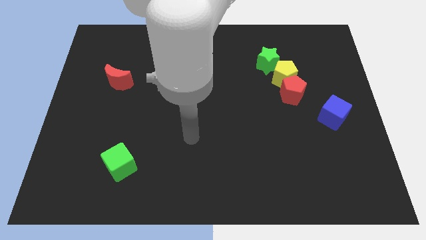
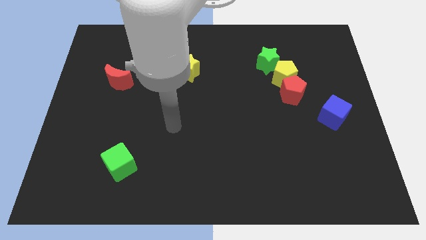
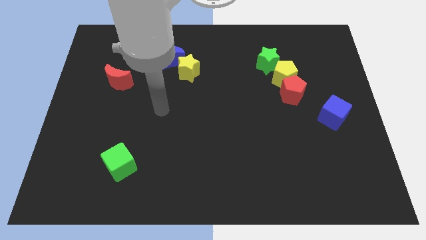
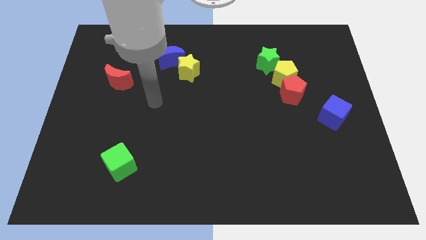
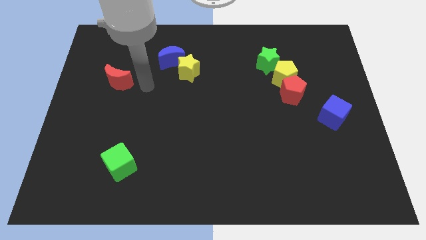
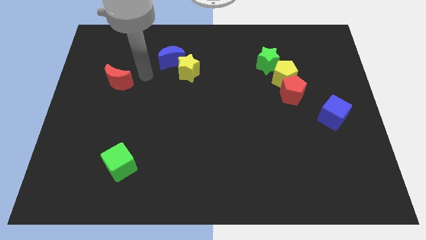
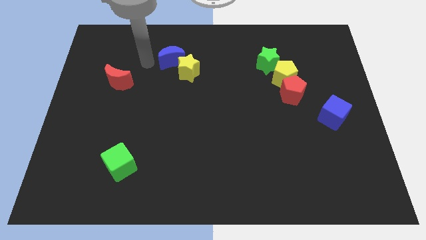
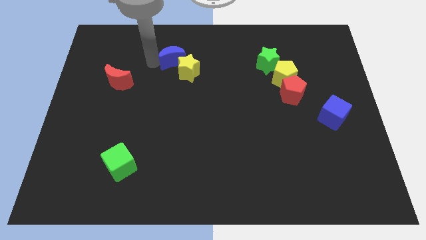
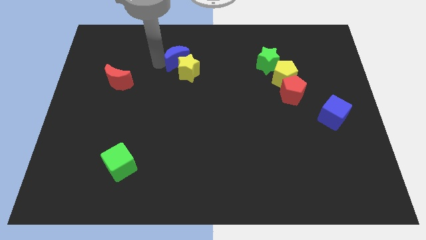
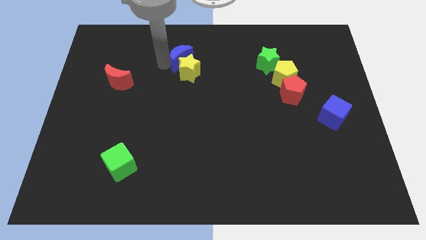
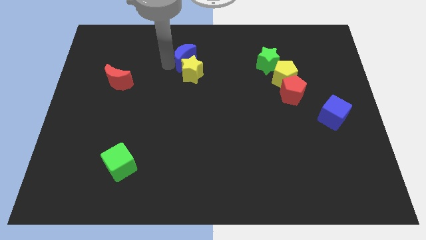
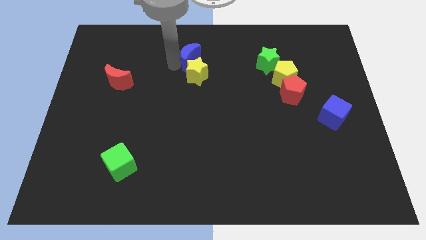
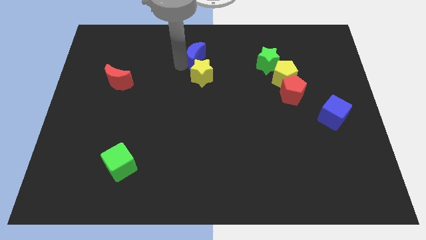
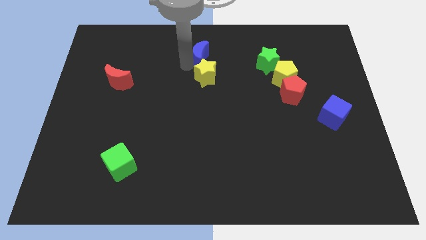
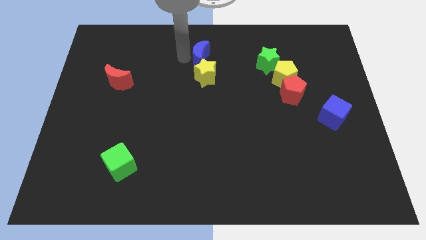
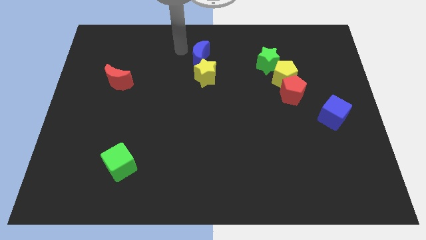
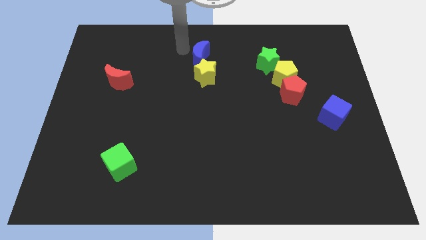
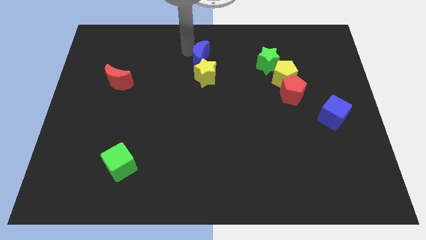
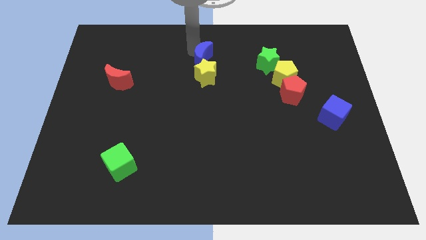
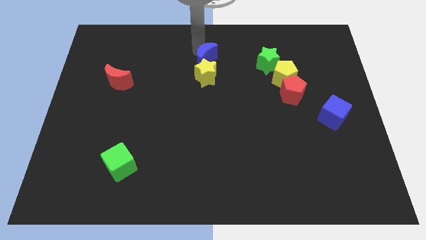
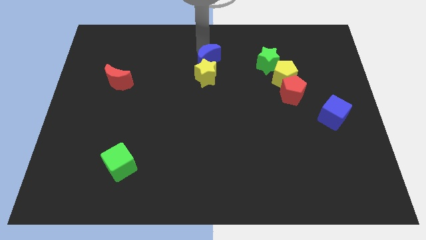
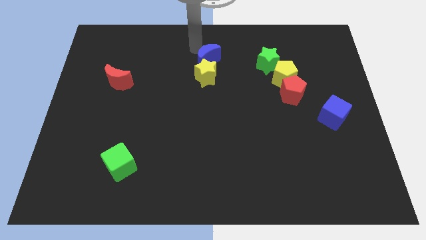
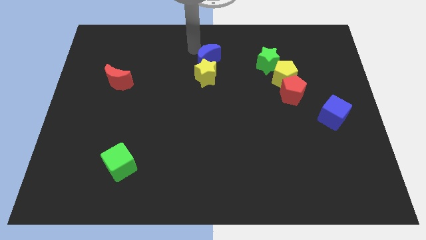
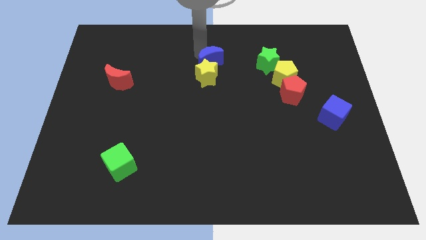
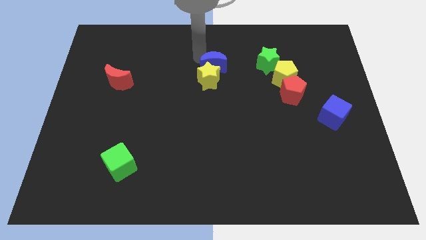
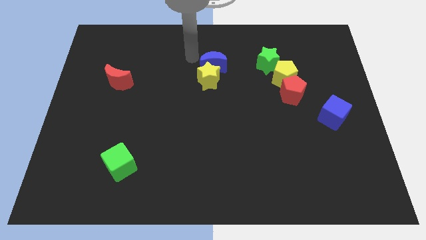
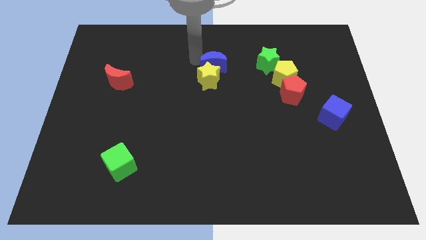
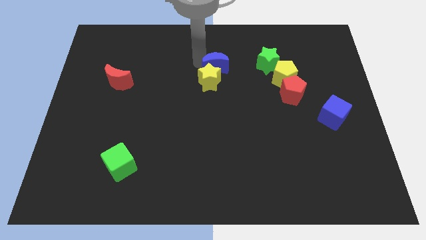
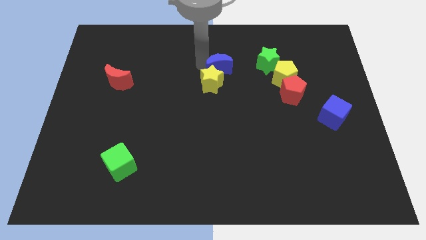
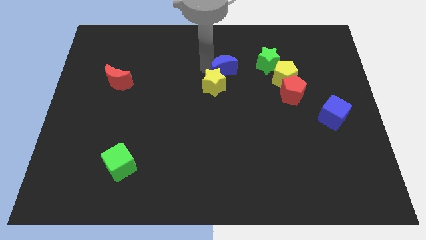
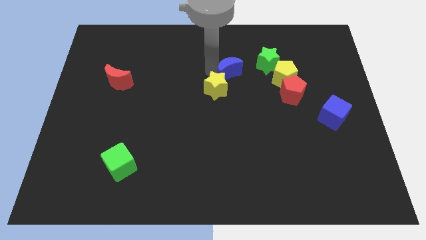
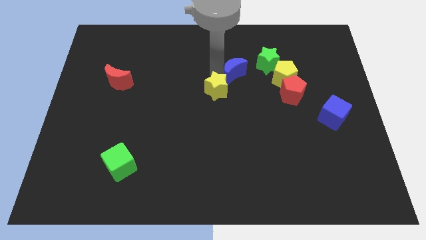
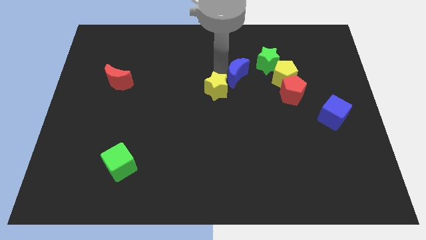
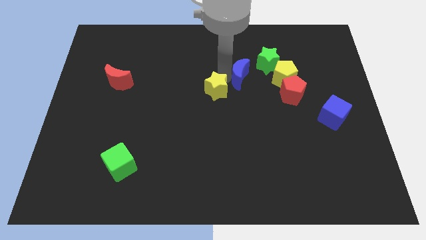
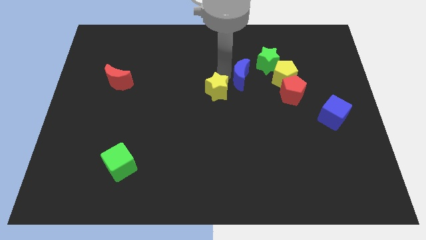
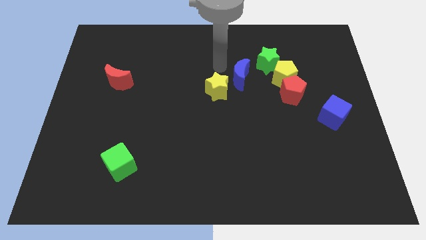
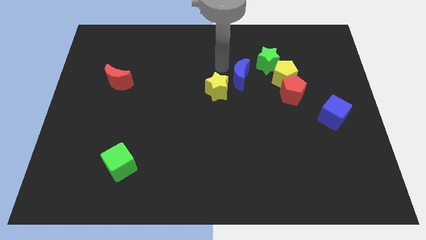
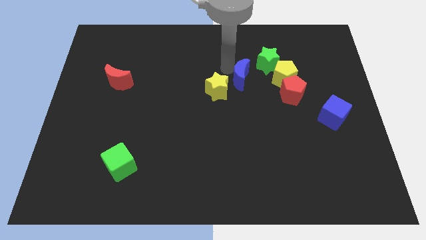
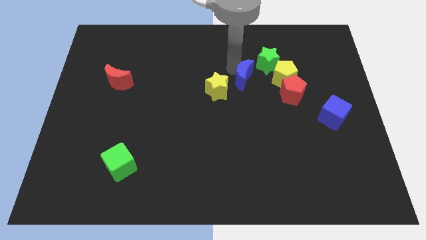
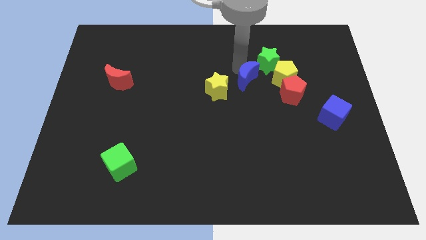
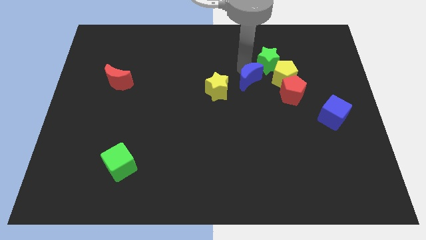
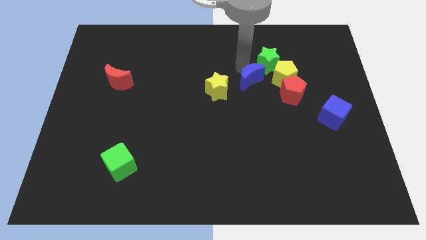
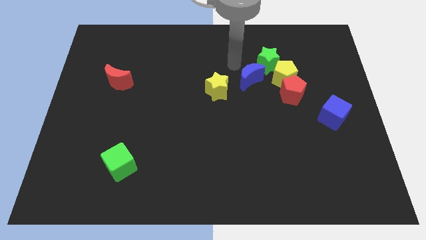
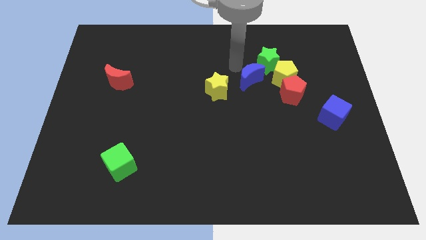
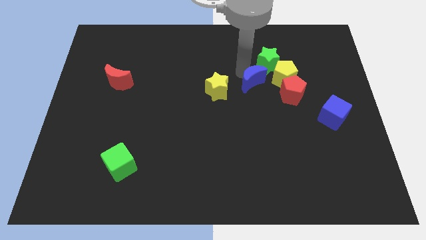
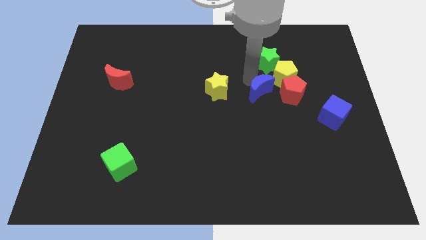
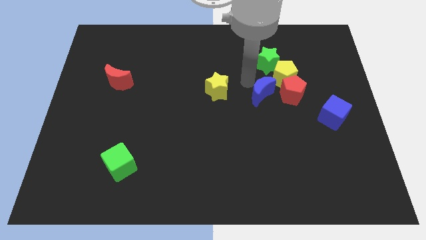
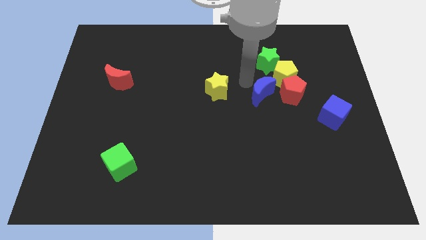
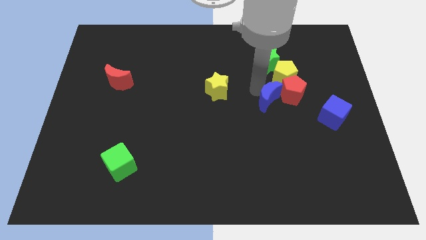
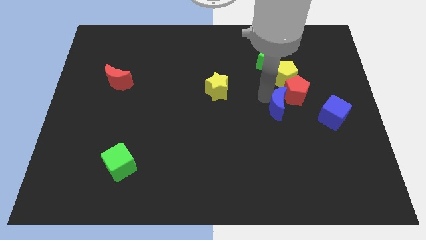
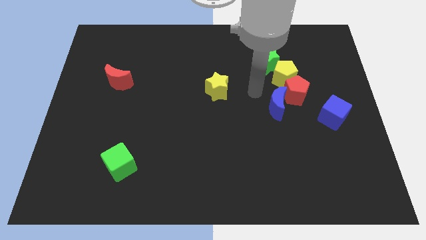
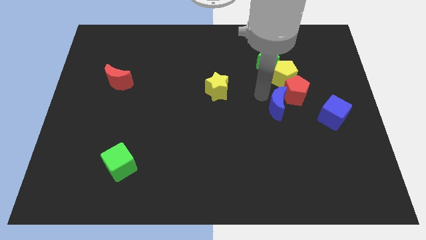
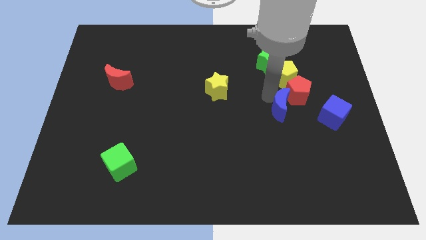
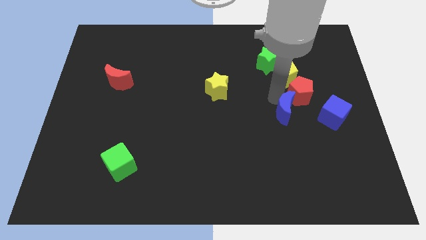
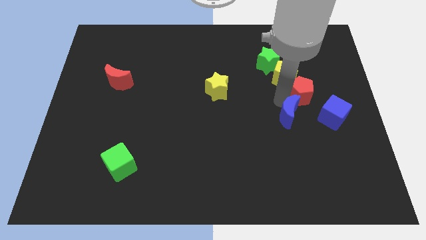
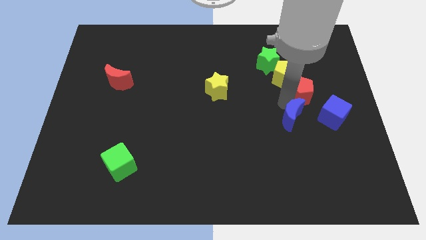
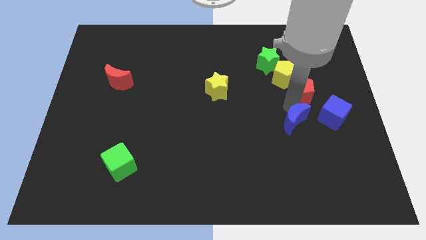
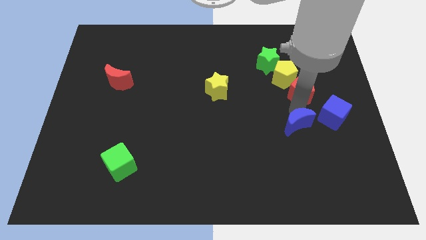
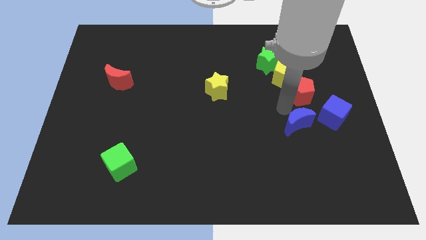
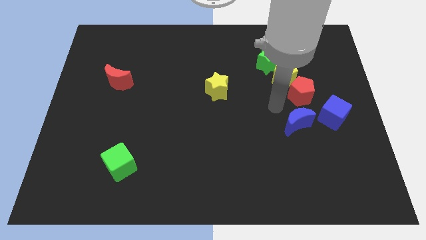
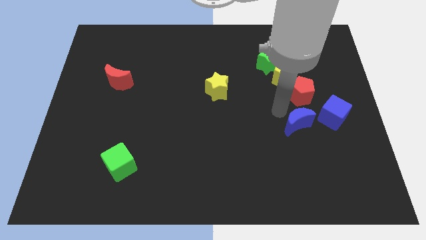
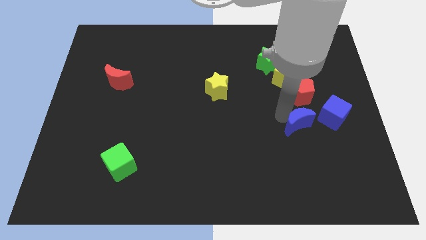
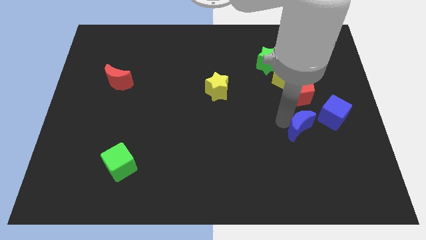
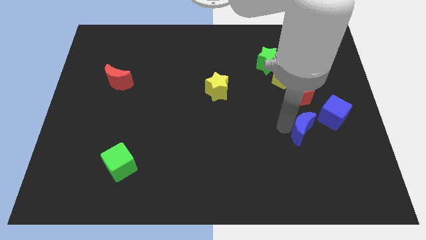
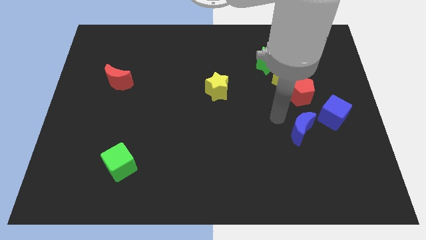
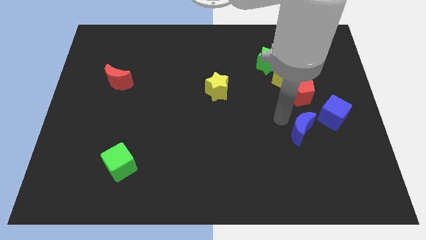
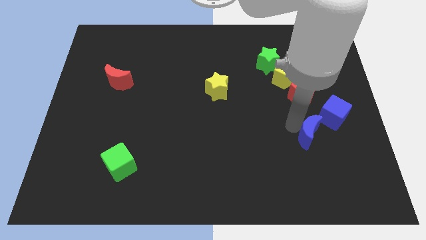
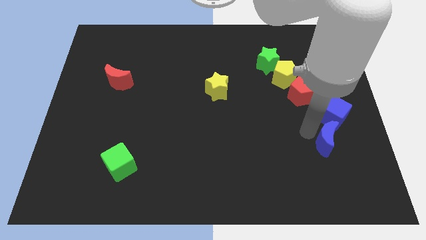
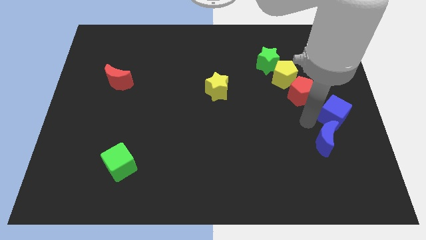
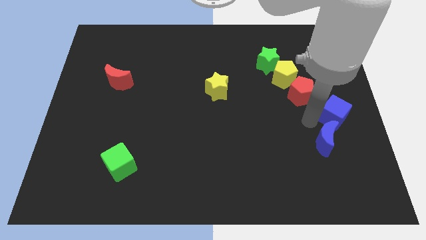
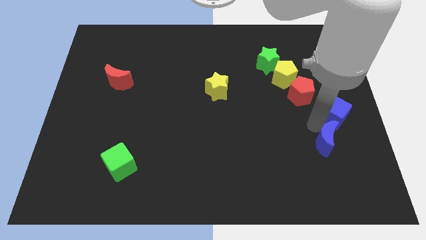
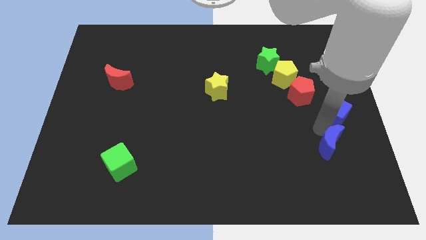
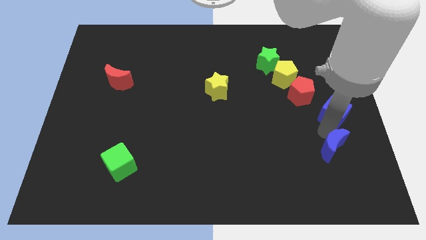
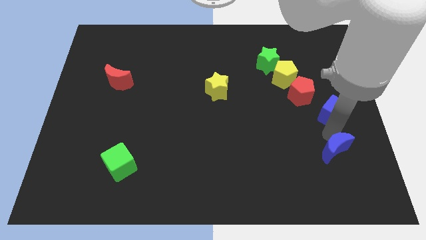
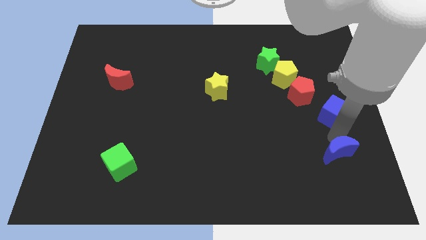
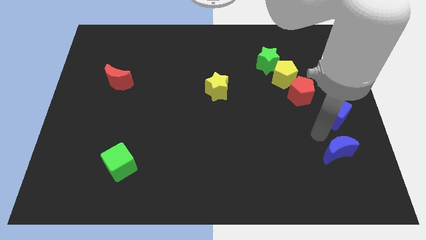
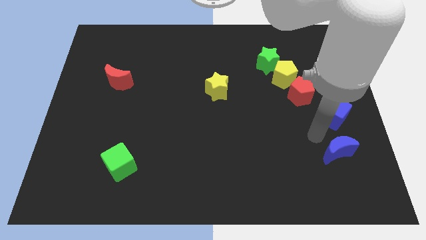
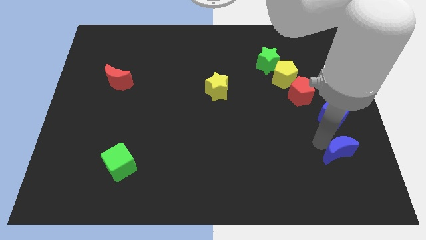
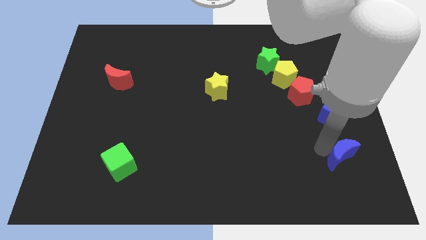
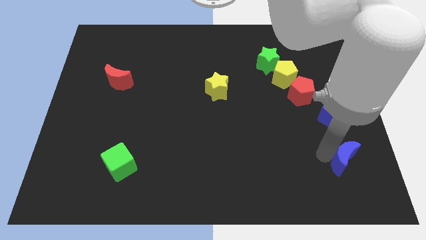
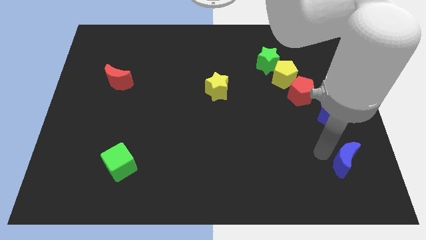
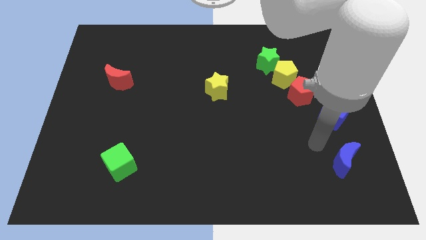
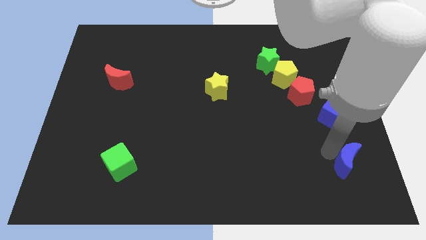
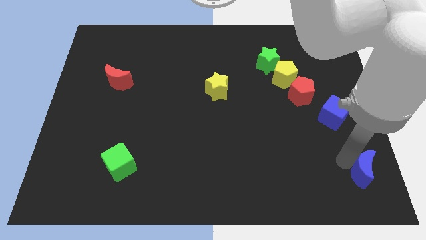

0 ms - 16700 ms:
put the blue moon to the bottom right corner
